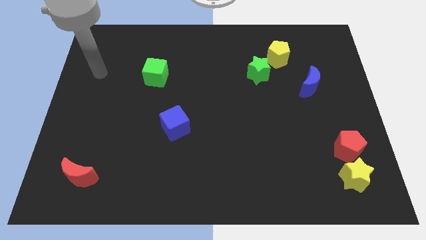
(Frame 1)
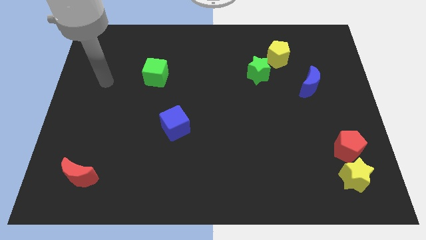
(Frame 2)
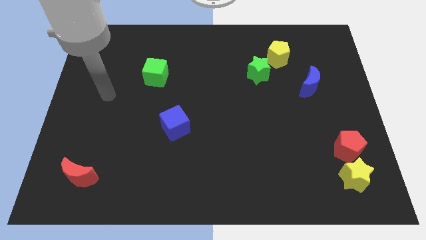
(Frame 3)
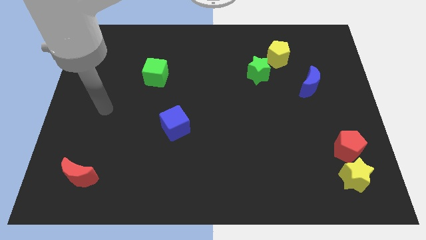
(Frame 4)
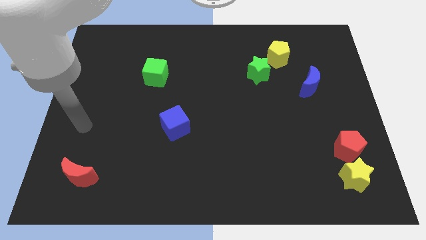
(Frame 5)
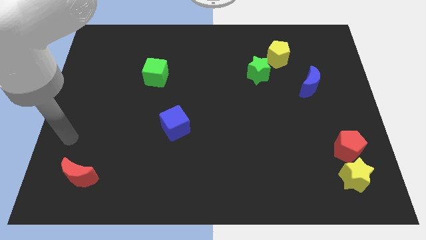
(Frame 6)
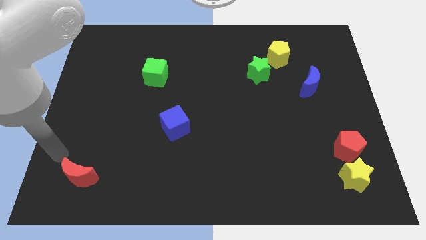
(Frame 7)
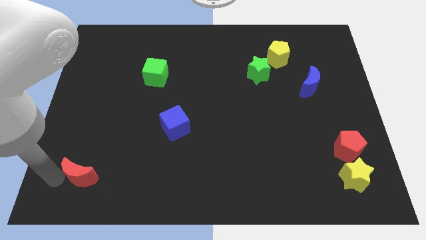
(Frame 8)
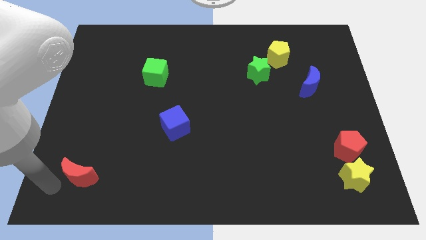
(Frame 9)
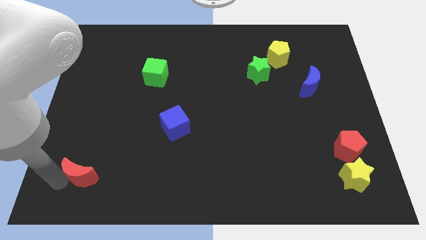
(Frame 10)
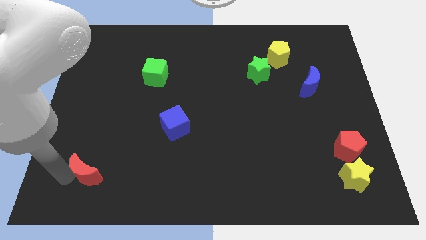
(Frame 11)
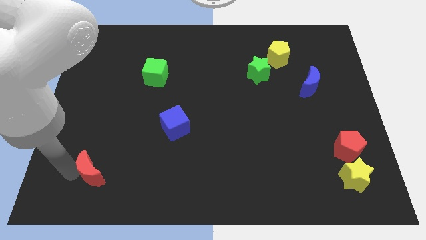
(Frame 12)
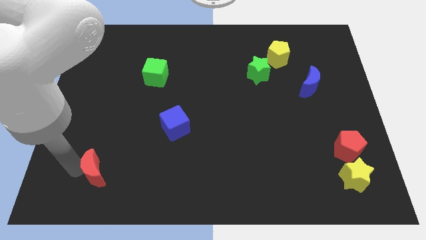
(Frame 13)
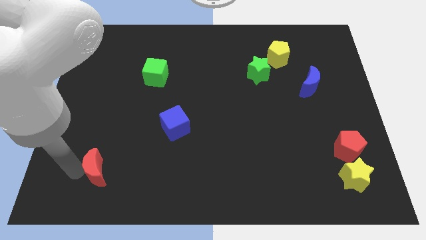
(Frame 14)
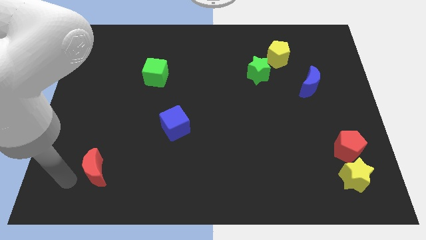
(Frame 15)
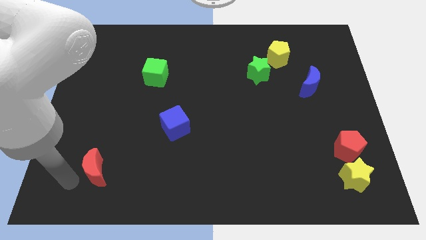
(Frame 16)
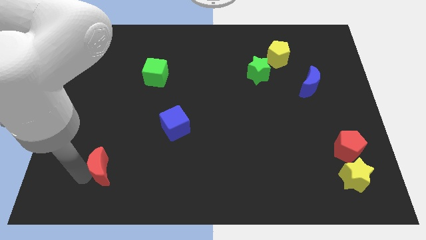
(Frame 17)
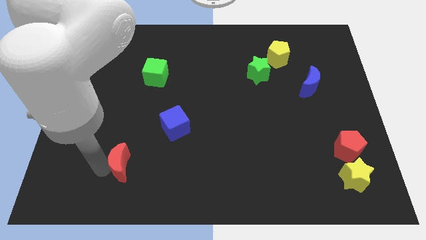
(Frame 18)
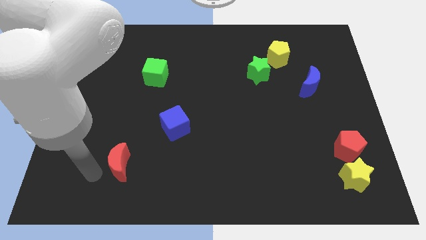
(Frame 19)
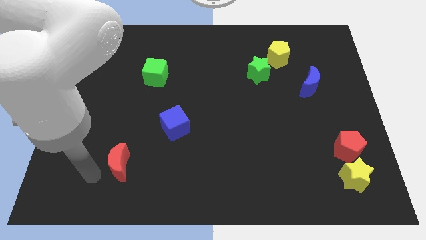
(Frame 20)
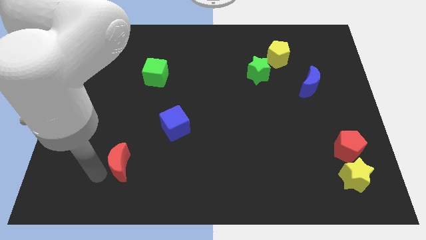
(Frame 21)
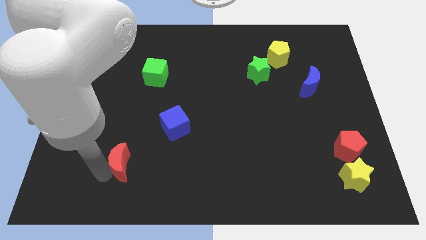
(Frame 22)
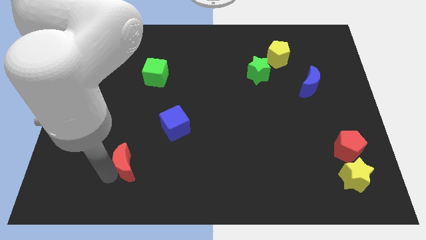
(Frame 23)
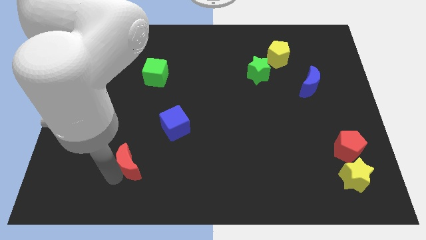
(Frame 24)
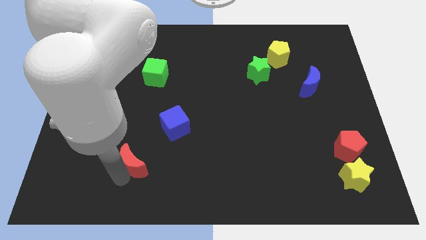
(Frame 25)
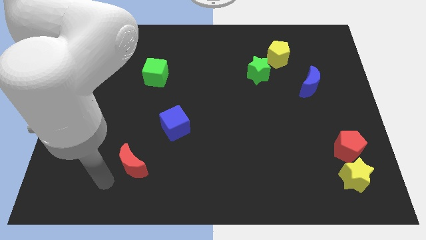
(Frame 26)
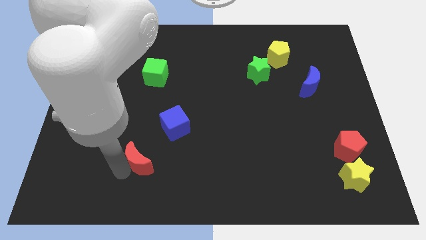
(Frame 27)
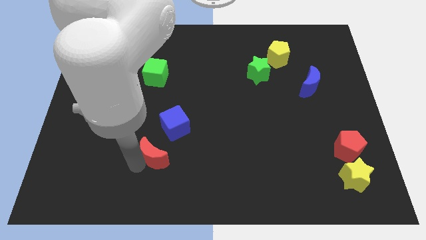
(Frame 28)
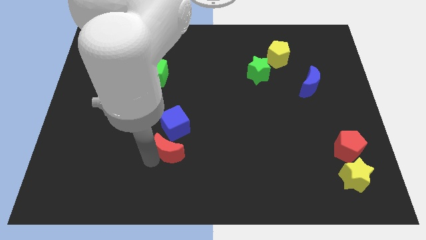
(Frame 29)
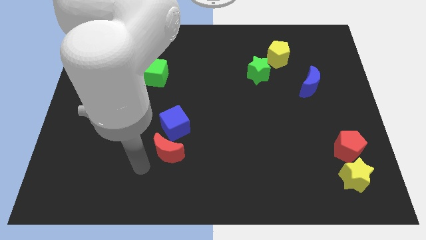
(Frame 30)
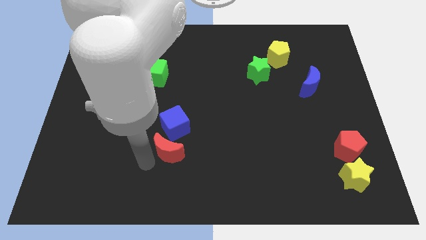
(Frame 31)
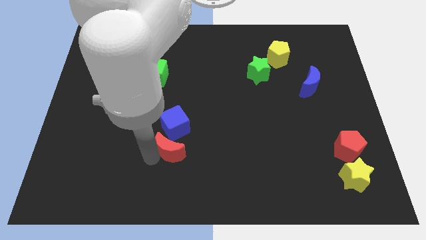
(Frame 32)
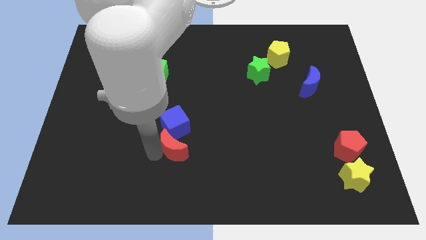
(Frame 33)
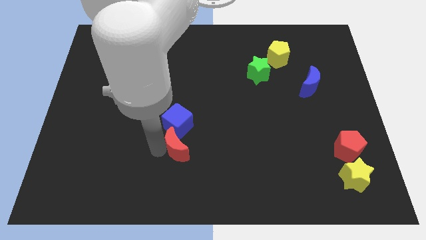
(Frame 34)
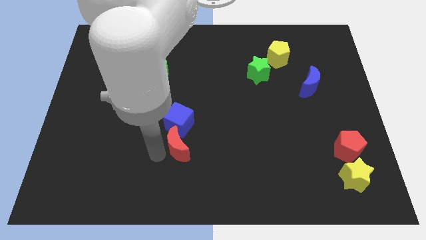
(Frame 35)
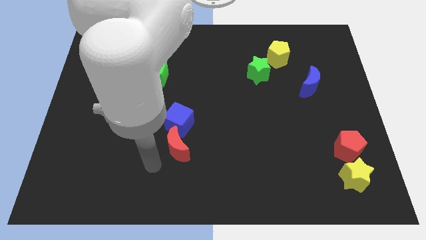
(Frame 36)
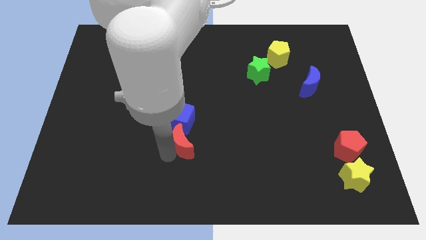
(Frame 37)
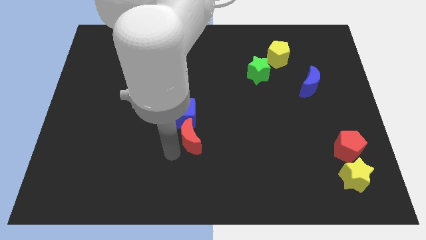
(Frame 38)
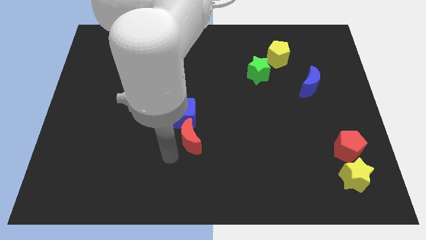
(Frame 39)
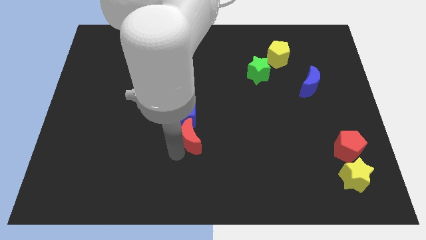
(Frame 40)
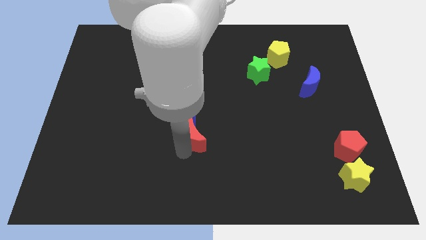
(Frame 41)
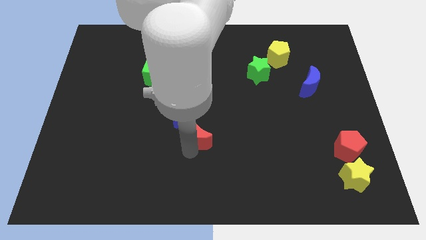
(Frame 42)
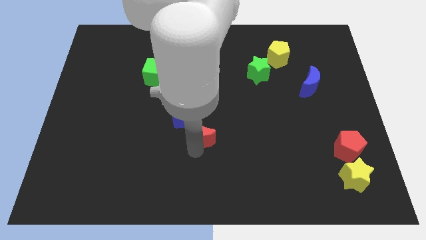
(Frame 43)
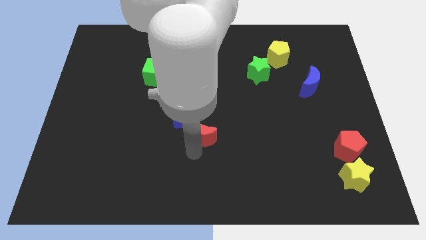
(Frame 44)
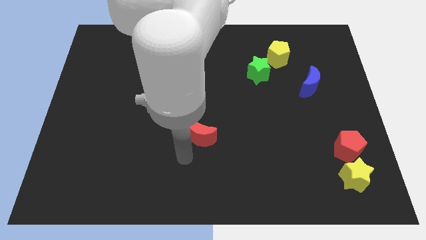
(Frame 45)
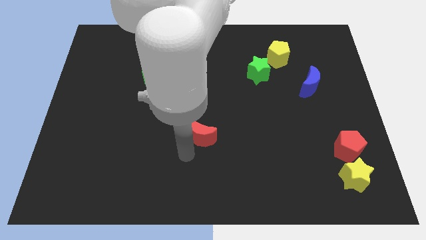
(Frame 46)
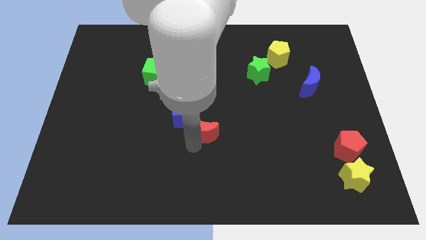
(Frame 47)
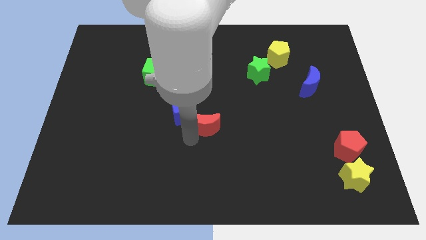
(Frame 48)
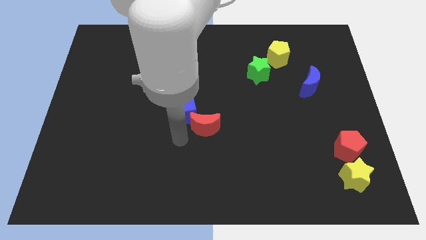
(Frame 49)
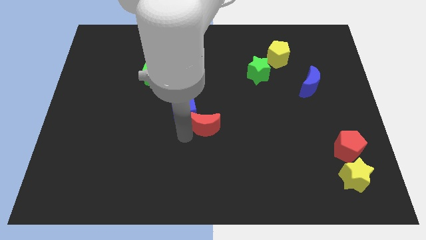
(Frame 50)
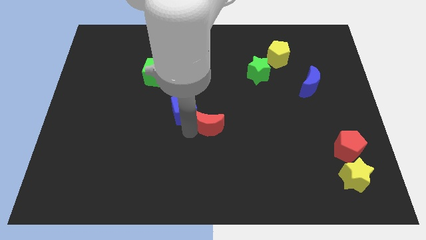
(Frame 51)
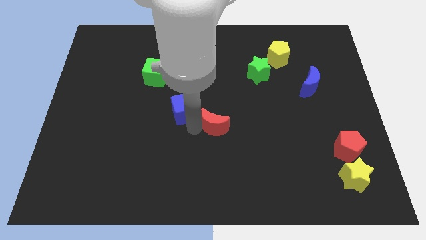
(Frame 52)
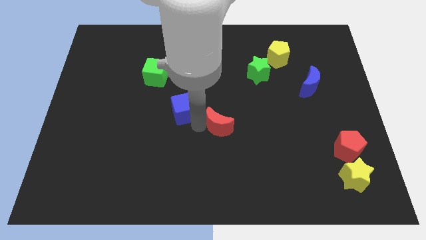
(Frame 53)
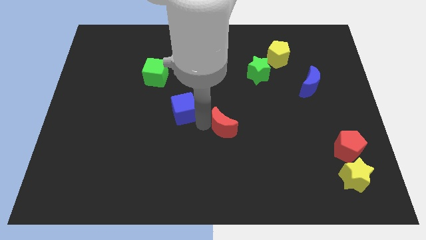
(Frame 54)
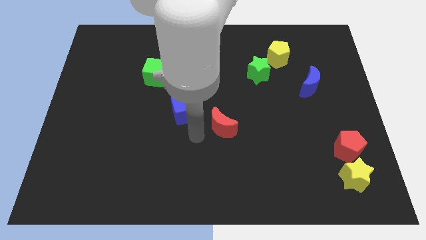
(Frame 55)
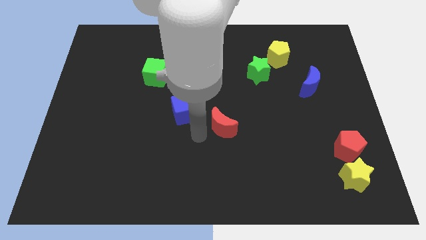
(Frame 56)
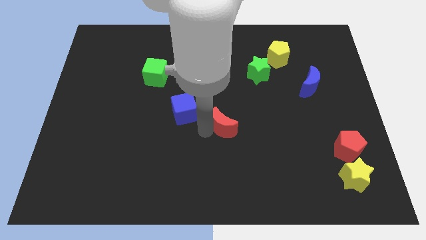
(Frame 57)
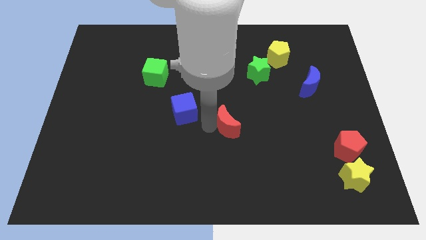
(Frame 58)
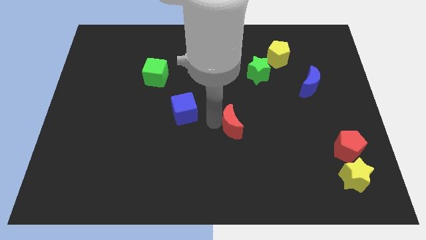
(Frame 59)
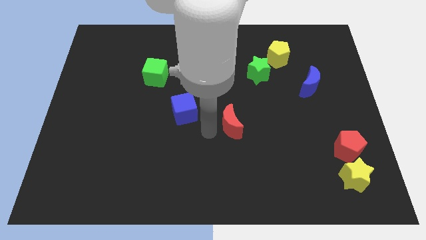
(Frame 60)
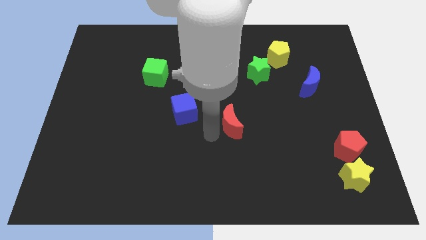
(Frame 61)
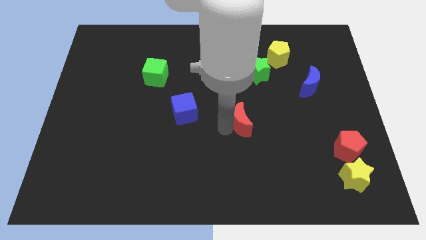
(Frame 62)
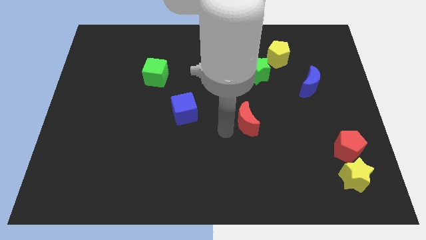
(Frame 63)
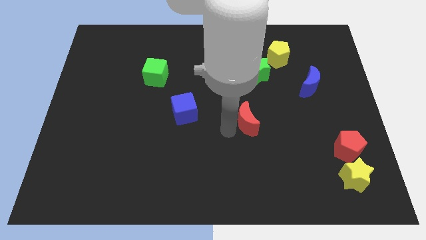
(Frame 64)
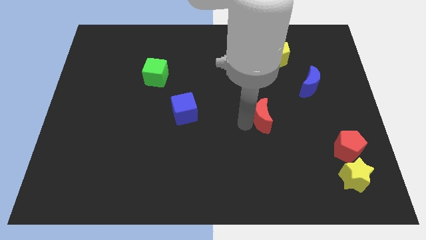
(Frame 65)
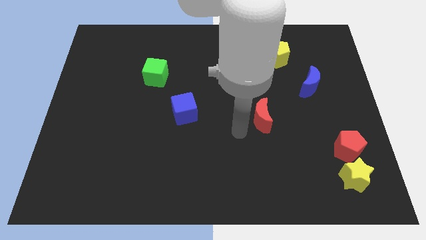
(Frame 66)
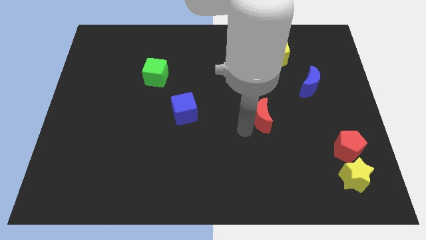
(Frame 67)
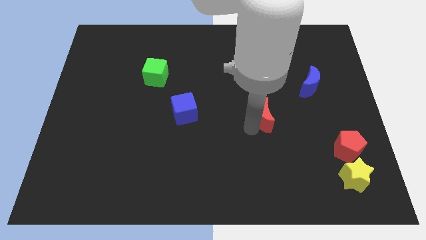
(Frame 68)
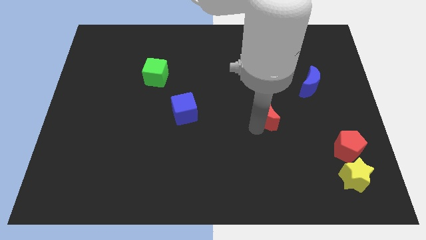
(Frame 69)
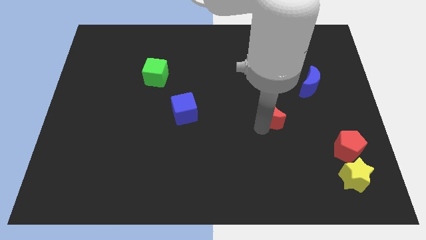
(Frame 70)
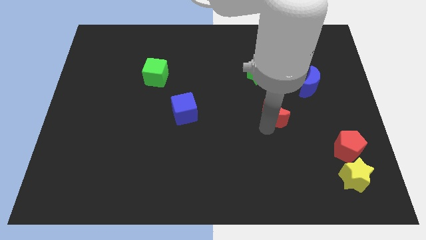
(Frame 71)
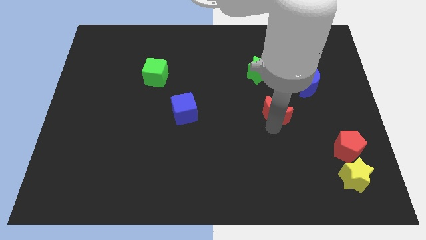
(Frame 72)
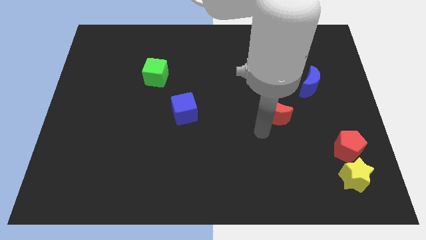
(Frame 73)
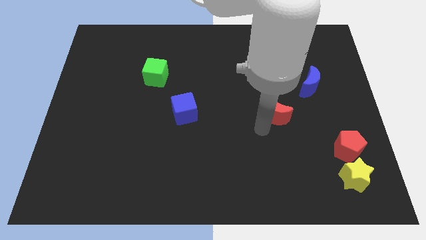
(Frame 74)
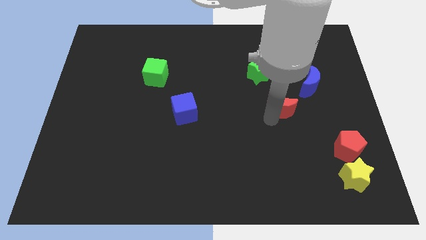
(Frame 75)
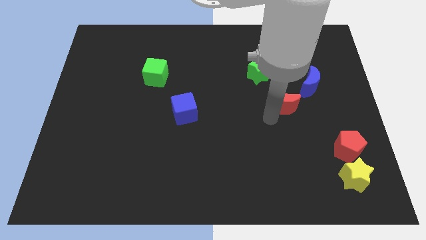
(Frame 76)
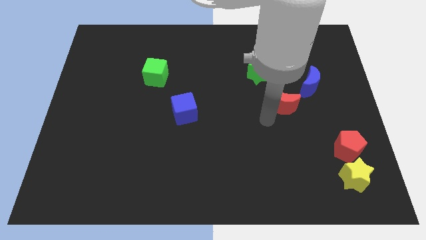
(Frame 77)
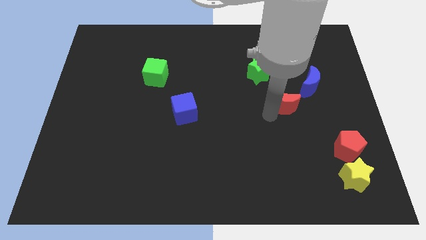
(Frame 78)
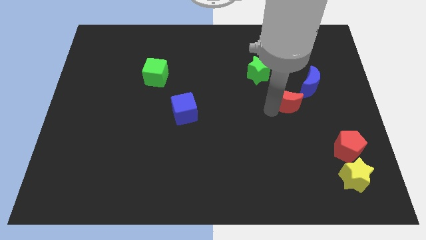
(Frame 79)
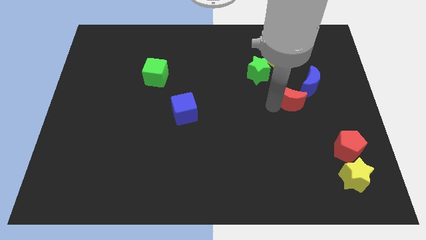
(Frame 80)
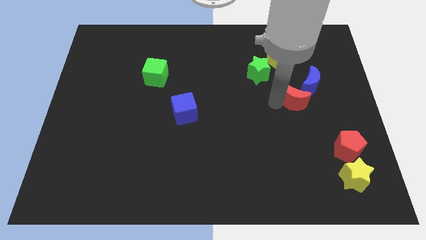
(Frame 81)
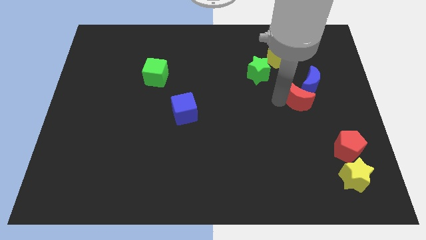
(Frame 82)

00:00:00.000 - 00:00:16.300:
push the red moon to the blue moon

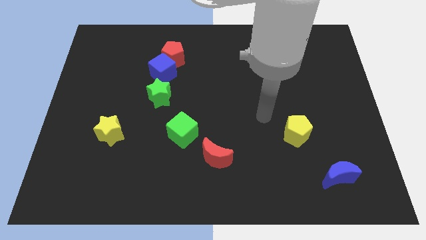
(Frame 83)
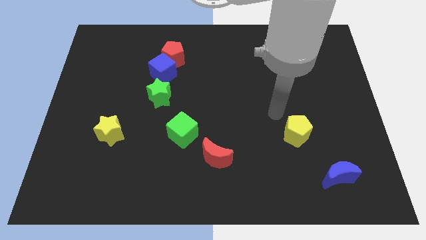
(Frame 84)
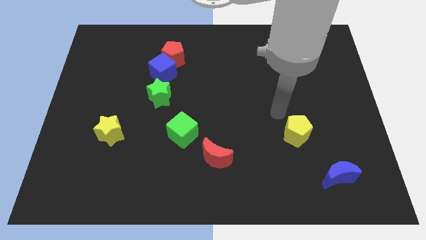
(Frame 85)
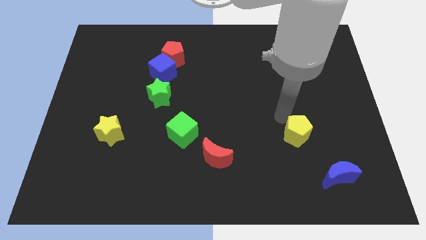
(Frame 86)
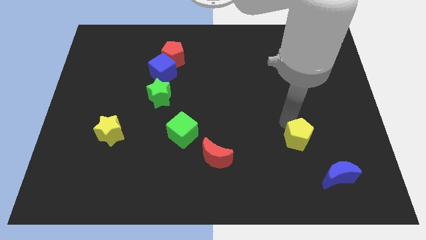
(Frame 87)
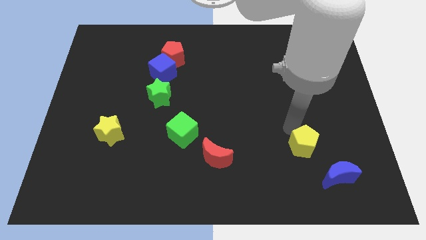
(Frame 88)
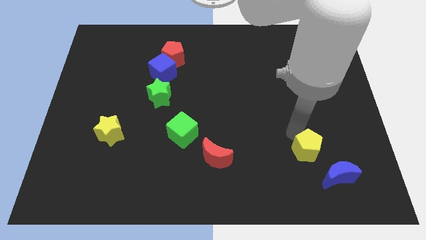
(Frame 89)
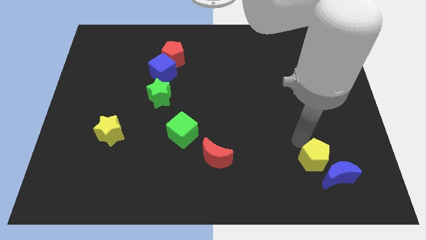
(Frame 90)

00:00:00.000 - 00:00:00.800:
move the yellow pentagon to the blue moon
